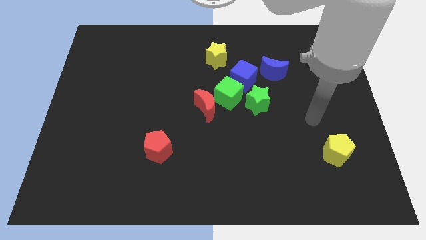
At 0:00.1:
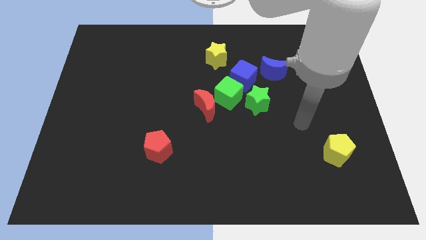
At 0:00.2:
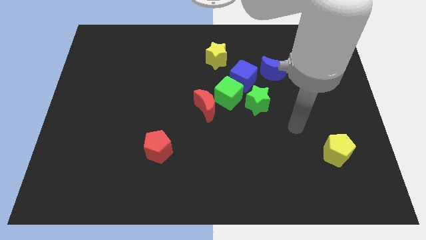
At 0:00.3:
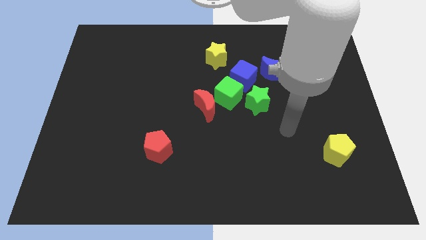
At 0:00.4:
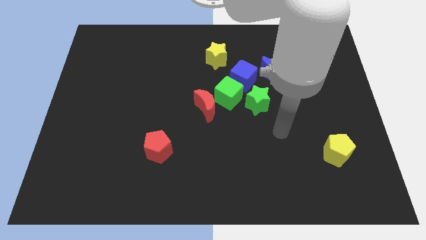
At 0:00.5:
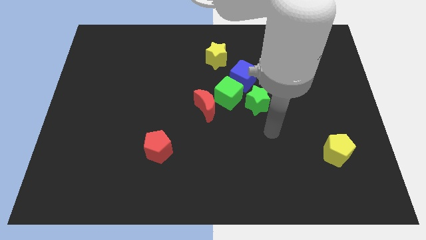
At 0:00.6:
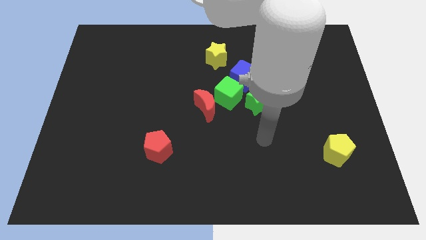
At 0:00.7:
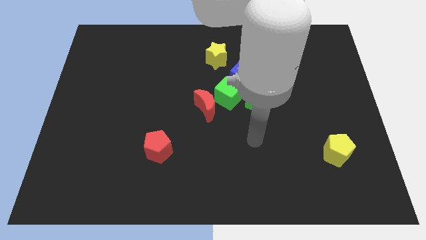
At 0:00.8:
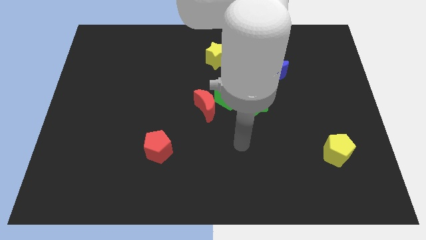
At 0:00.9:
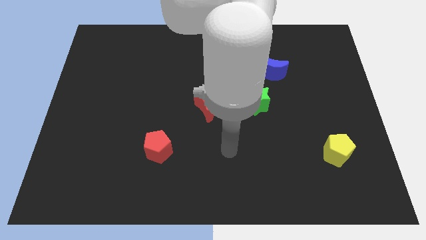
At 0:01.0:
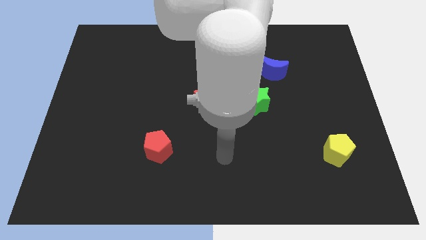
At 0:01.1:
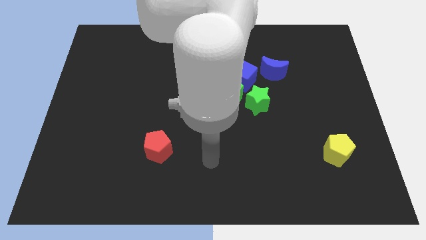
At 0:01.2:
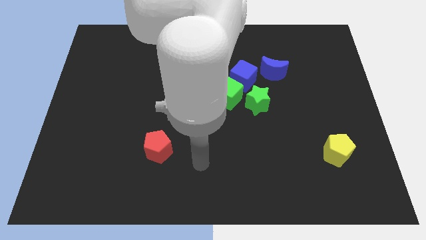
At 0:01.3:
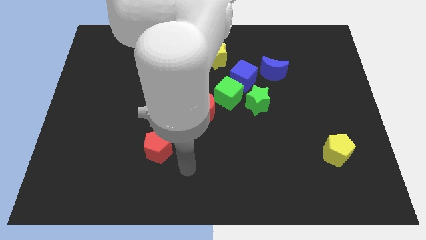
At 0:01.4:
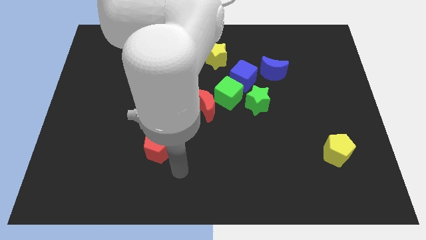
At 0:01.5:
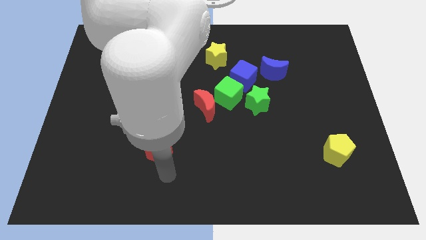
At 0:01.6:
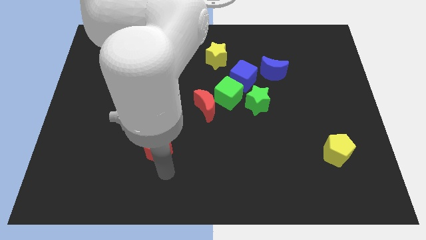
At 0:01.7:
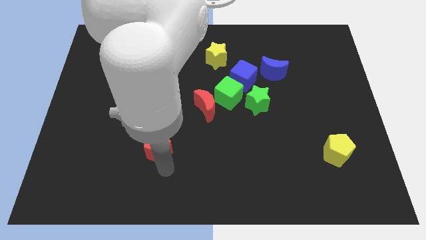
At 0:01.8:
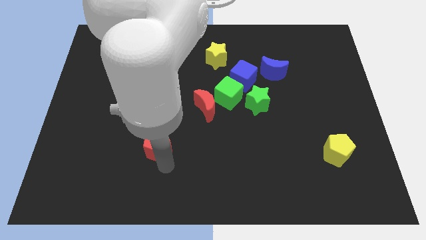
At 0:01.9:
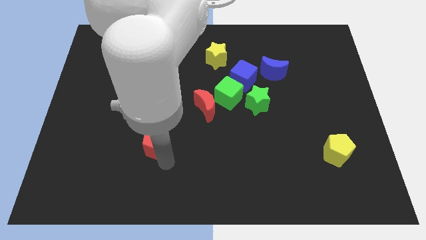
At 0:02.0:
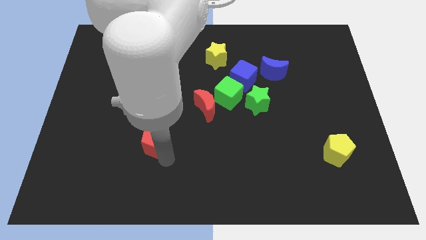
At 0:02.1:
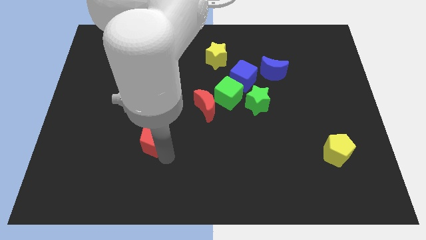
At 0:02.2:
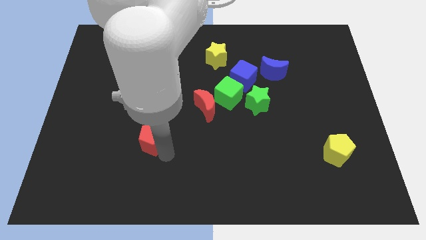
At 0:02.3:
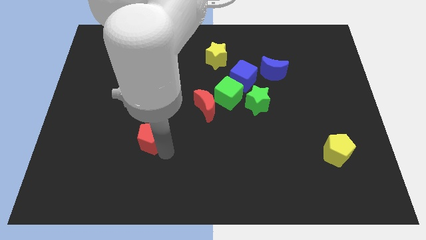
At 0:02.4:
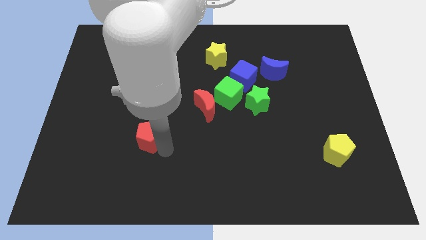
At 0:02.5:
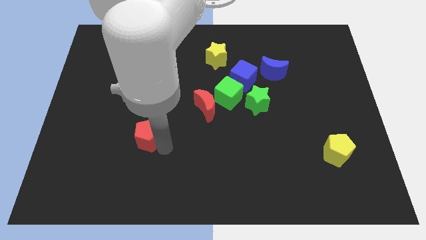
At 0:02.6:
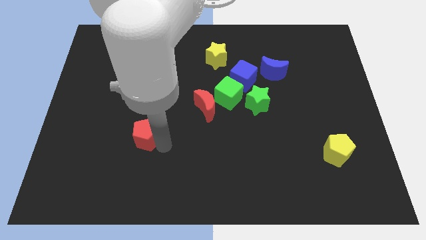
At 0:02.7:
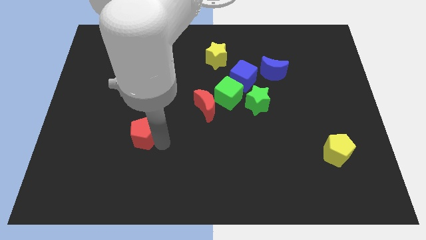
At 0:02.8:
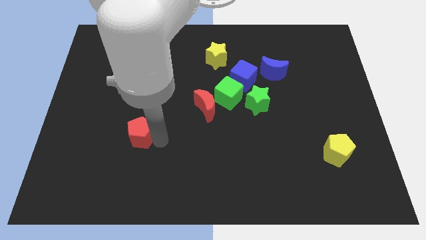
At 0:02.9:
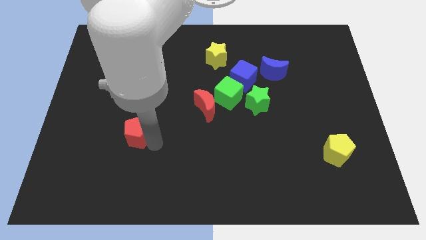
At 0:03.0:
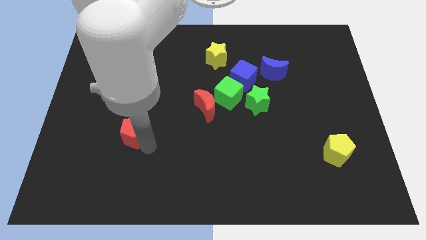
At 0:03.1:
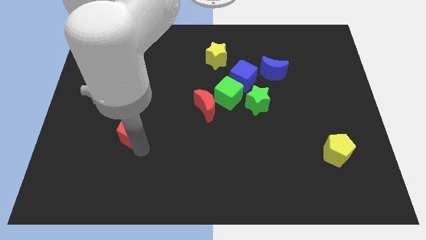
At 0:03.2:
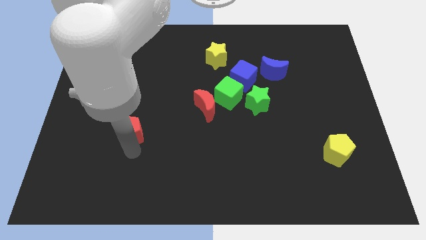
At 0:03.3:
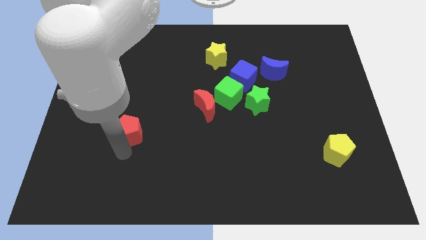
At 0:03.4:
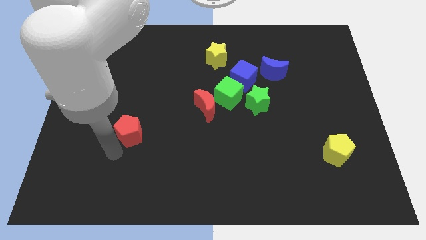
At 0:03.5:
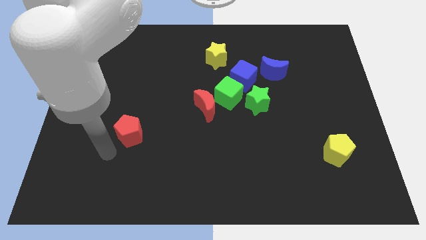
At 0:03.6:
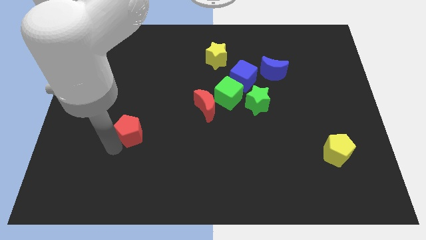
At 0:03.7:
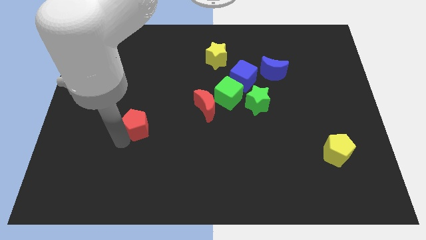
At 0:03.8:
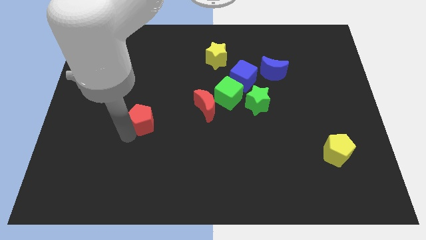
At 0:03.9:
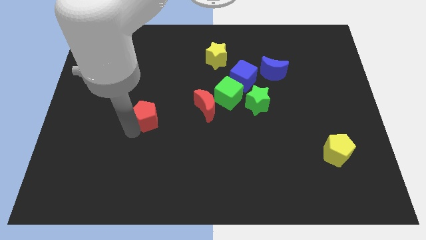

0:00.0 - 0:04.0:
move the red pentagon a bit upwards

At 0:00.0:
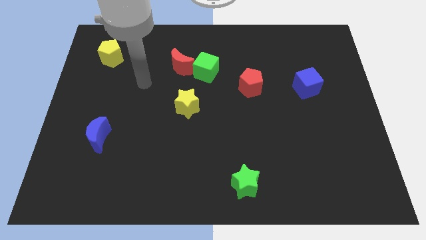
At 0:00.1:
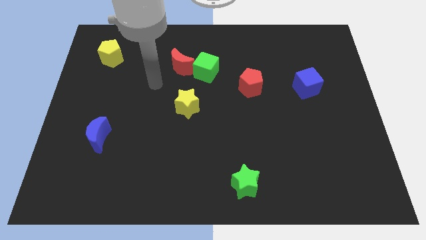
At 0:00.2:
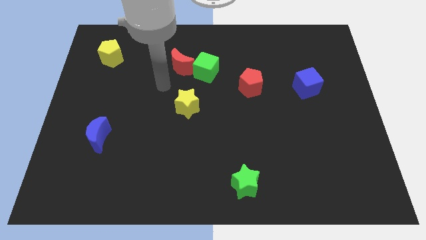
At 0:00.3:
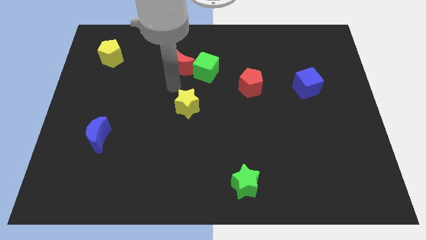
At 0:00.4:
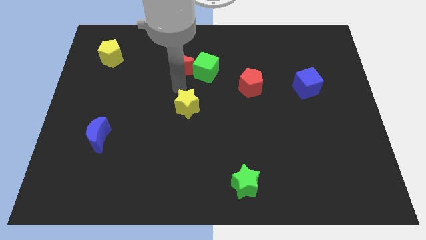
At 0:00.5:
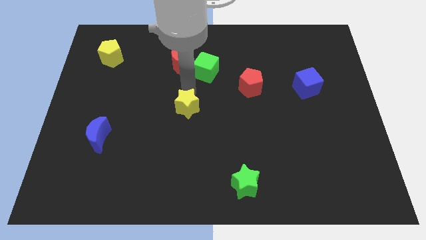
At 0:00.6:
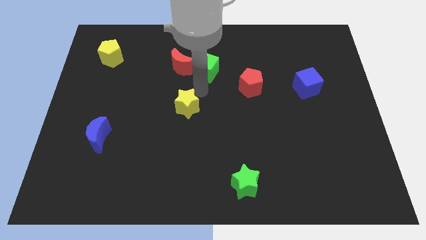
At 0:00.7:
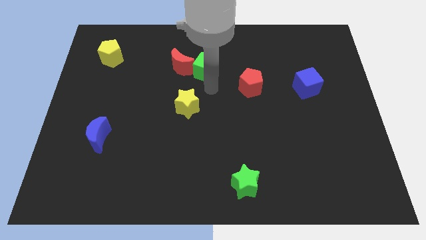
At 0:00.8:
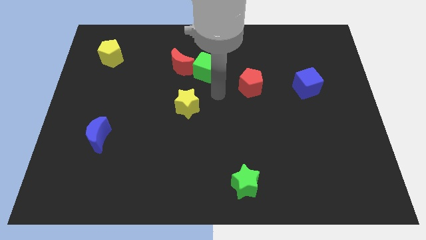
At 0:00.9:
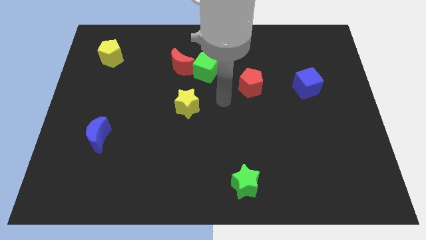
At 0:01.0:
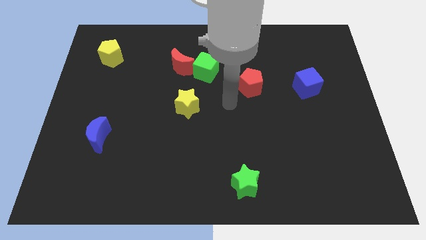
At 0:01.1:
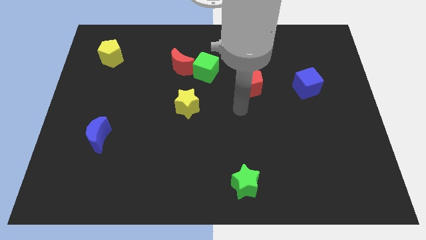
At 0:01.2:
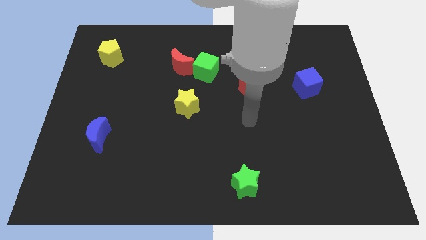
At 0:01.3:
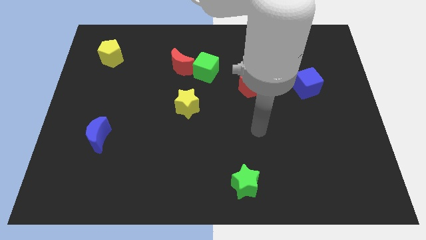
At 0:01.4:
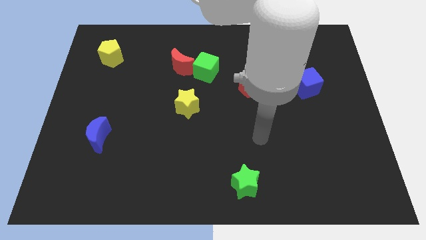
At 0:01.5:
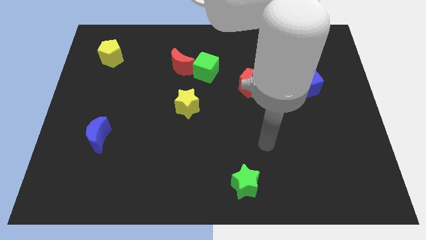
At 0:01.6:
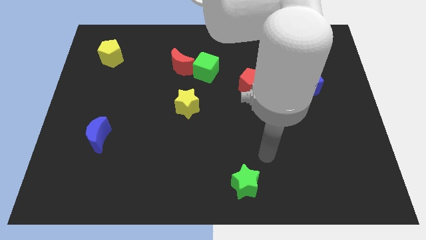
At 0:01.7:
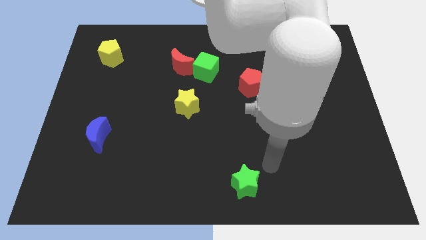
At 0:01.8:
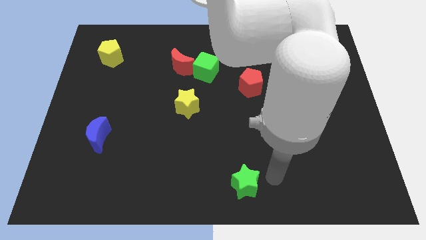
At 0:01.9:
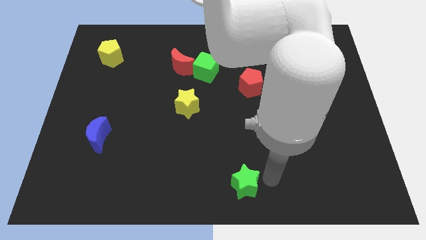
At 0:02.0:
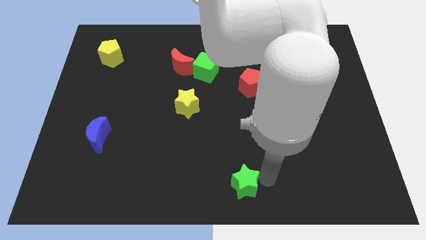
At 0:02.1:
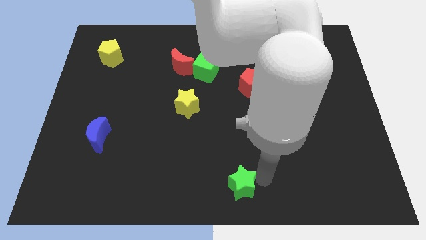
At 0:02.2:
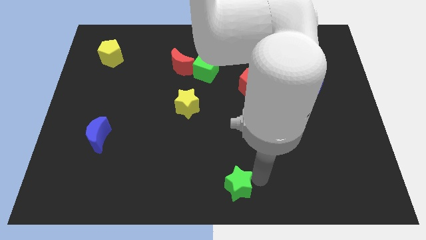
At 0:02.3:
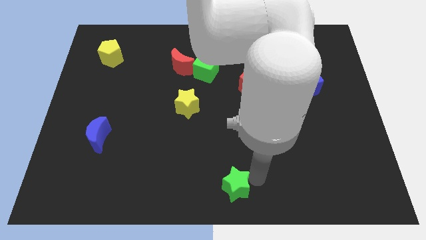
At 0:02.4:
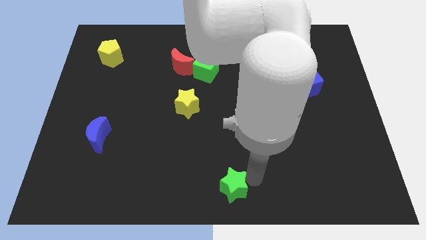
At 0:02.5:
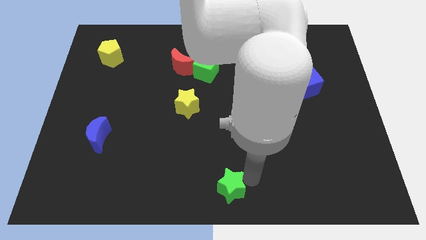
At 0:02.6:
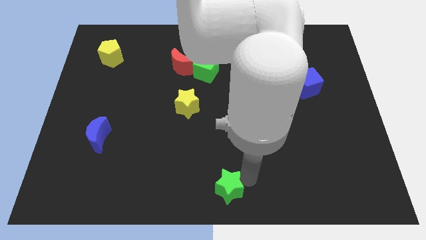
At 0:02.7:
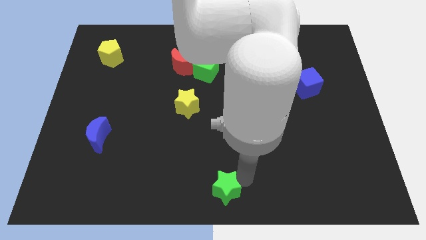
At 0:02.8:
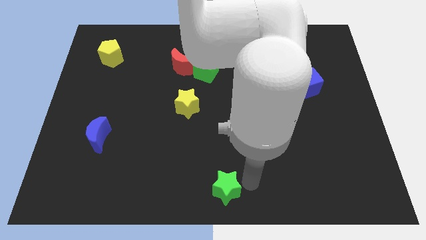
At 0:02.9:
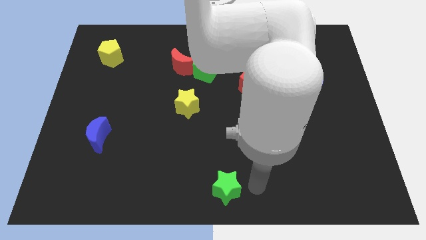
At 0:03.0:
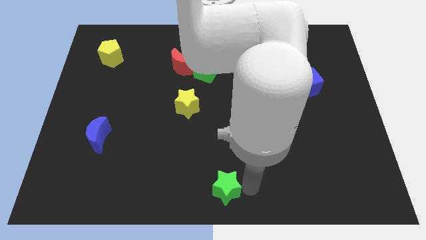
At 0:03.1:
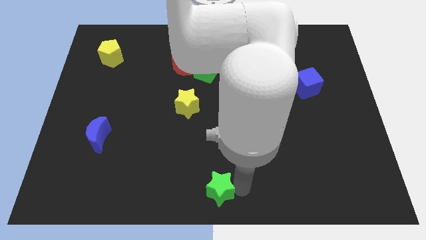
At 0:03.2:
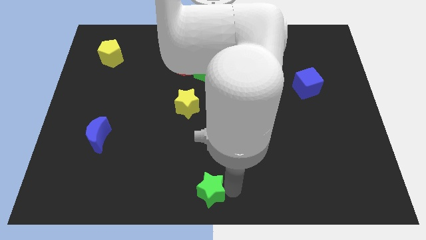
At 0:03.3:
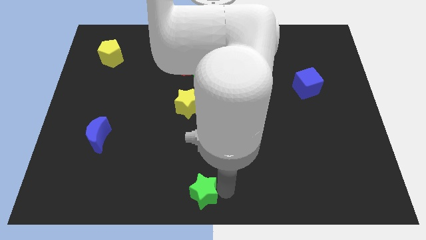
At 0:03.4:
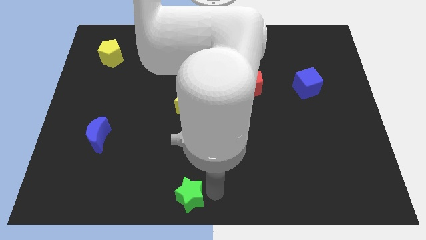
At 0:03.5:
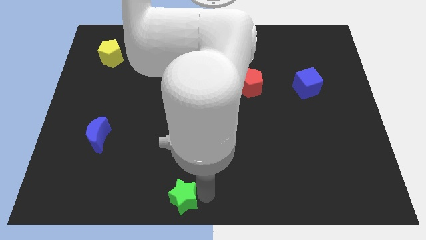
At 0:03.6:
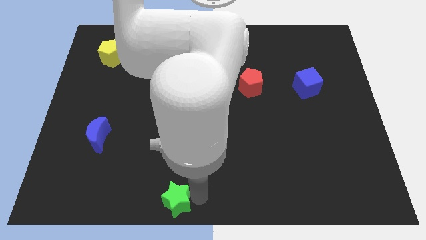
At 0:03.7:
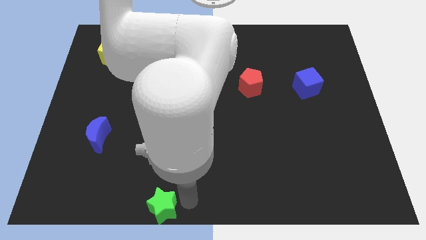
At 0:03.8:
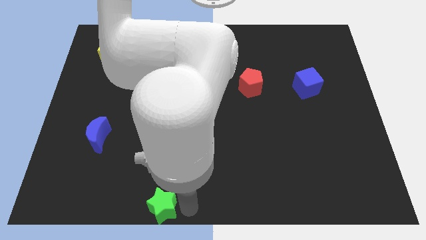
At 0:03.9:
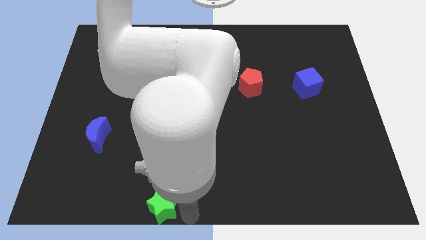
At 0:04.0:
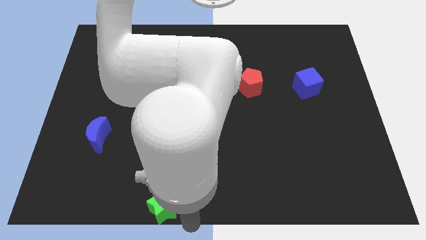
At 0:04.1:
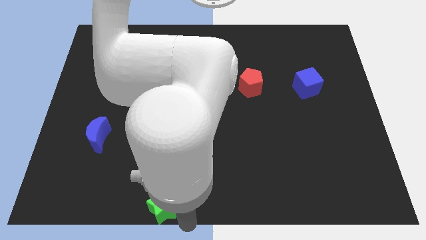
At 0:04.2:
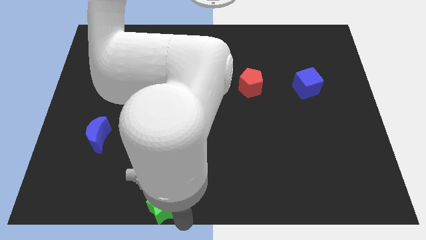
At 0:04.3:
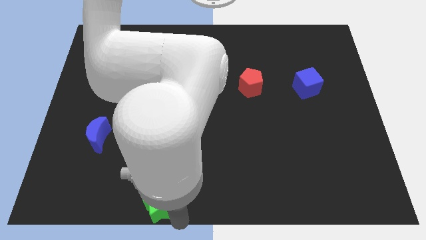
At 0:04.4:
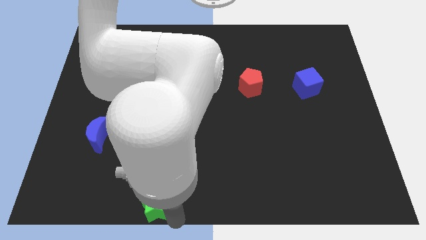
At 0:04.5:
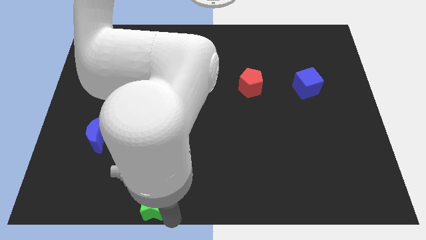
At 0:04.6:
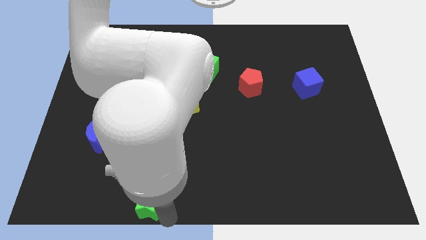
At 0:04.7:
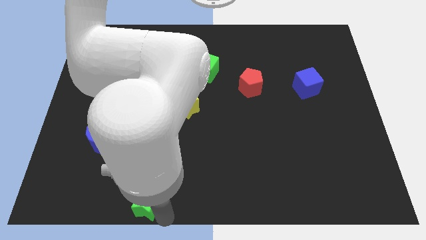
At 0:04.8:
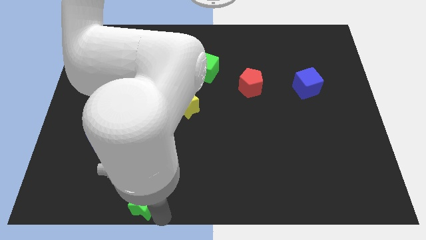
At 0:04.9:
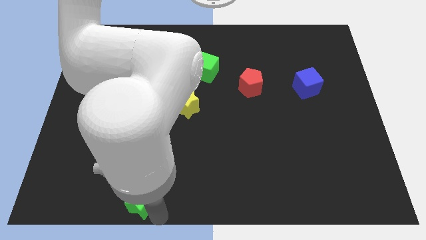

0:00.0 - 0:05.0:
push the green star left
